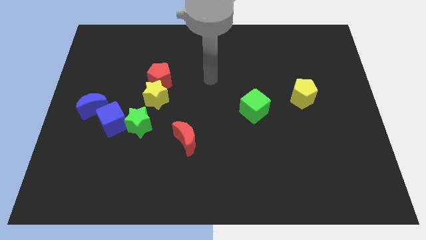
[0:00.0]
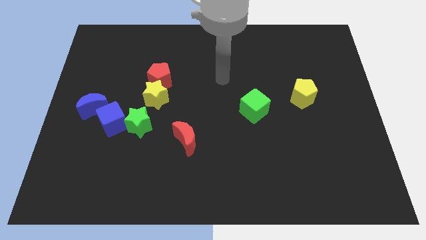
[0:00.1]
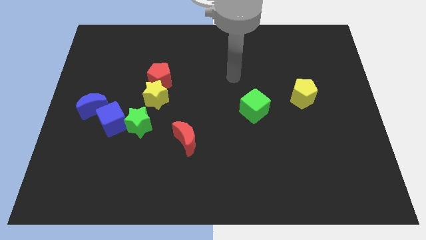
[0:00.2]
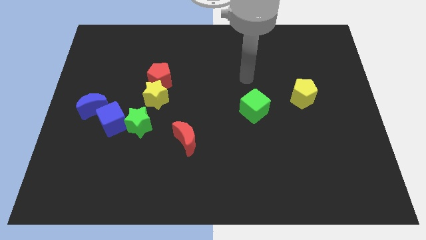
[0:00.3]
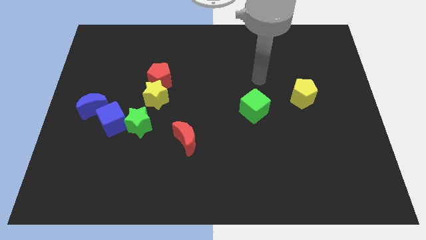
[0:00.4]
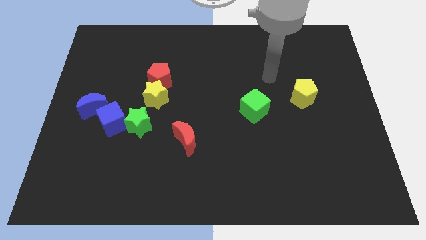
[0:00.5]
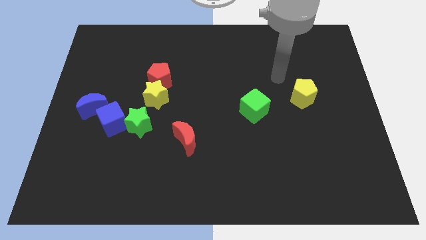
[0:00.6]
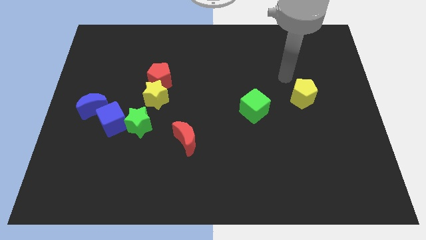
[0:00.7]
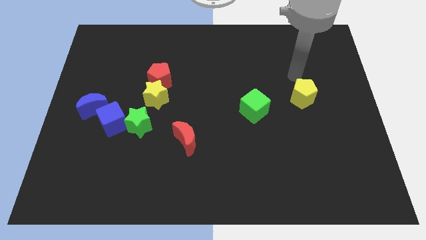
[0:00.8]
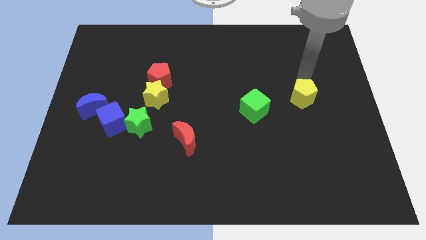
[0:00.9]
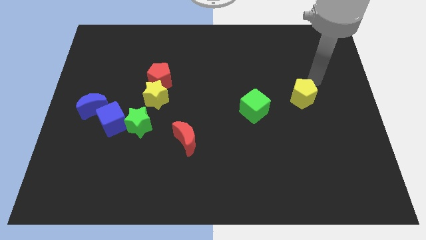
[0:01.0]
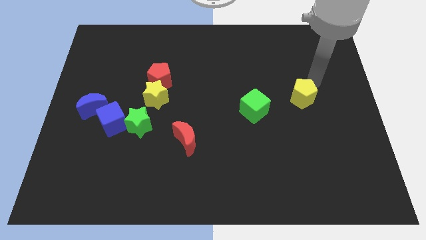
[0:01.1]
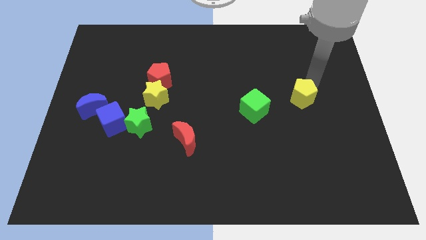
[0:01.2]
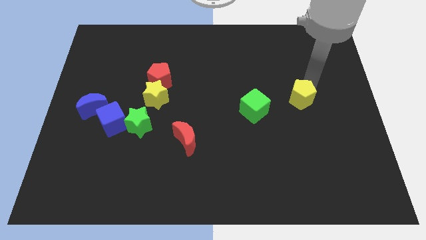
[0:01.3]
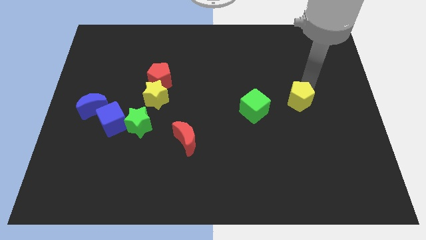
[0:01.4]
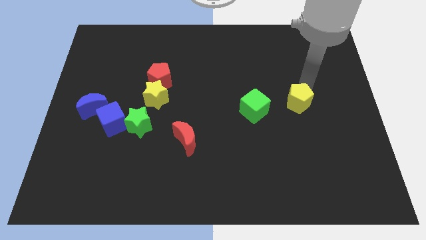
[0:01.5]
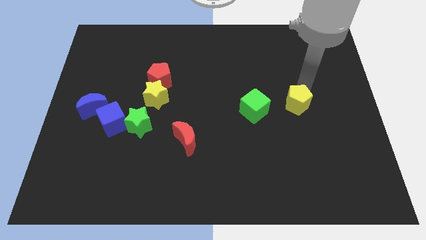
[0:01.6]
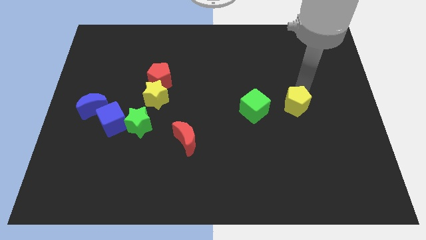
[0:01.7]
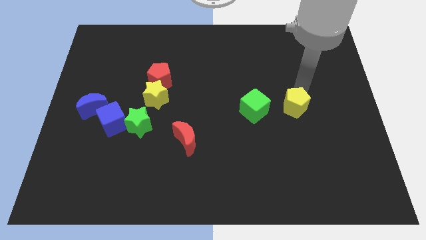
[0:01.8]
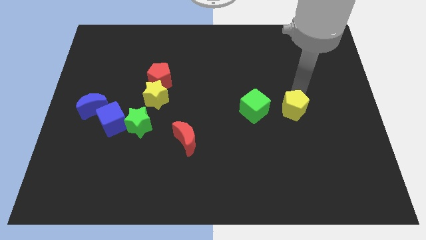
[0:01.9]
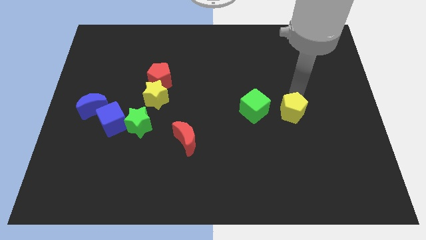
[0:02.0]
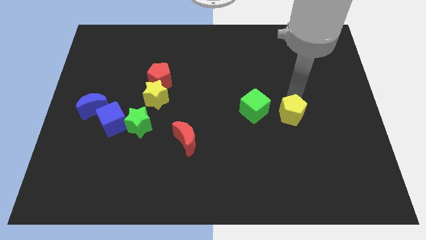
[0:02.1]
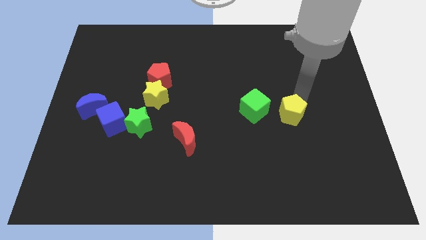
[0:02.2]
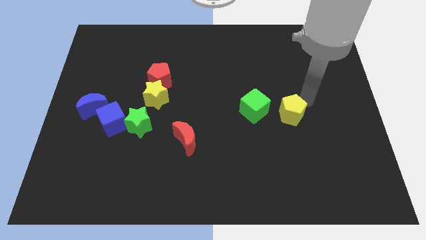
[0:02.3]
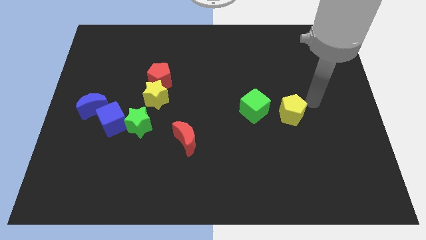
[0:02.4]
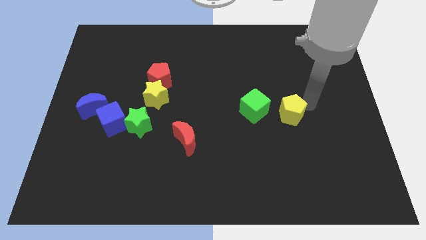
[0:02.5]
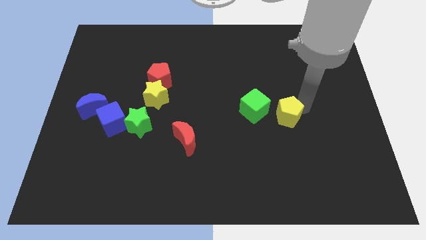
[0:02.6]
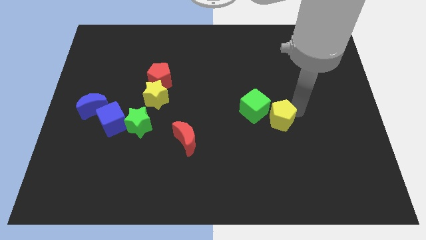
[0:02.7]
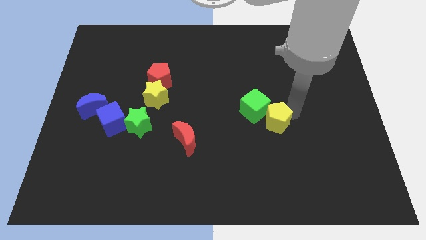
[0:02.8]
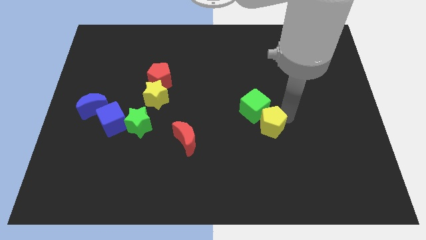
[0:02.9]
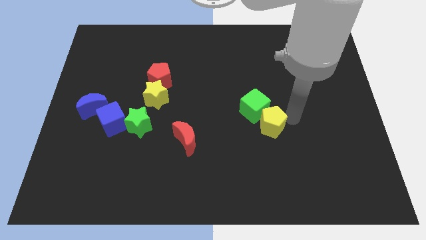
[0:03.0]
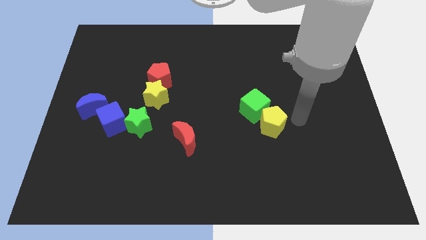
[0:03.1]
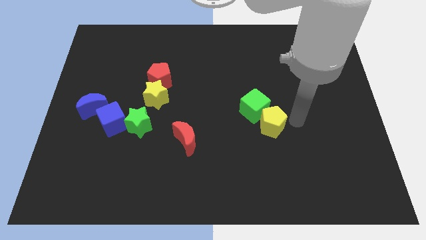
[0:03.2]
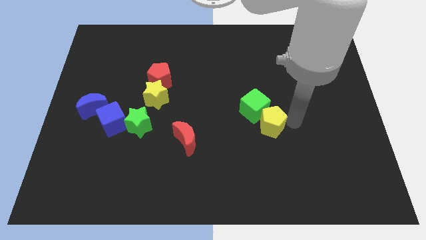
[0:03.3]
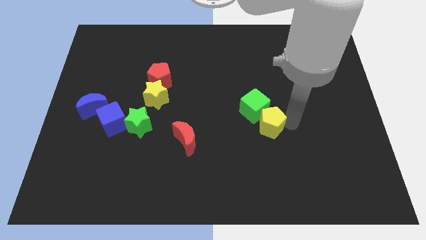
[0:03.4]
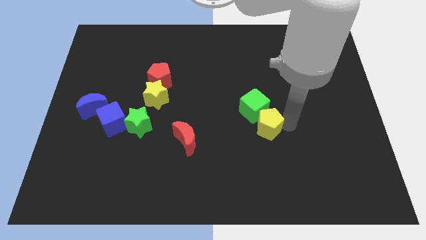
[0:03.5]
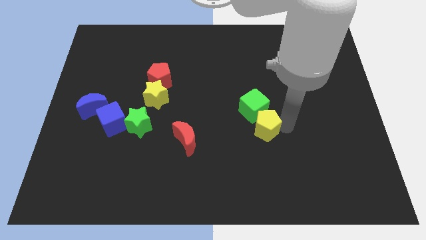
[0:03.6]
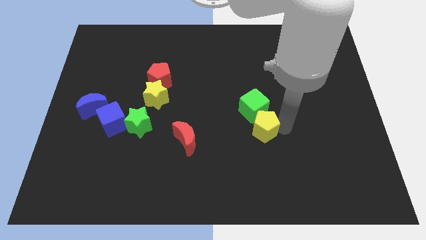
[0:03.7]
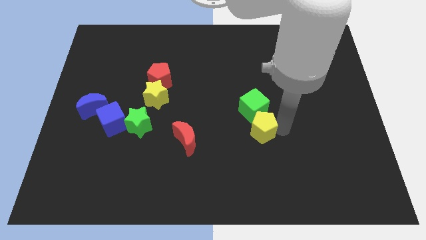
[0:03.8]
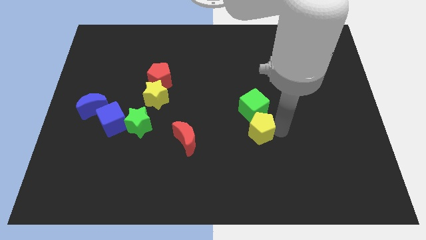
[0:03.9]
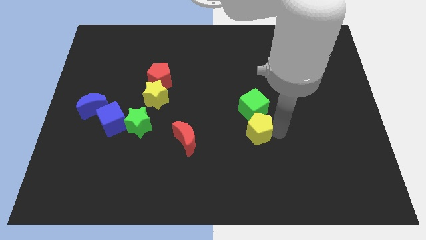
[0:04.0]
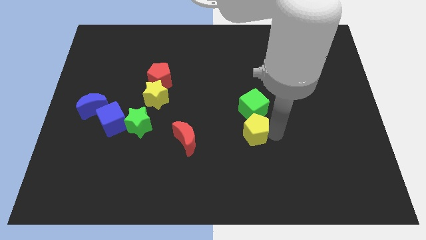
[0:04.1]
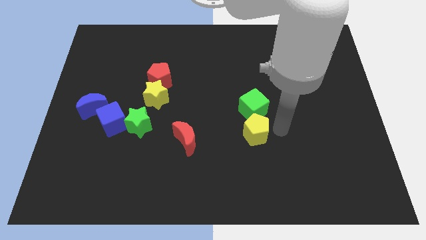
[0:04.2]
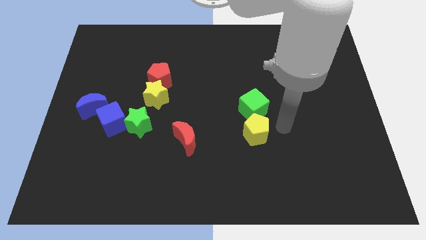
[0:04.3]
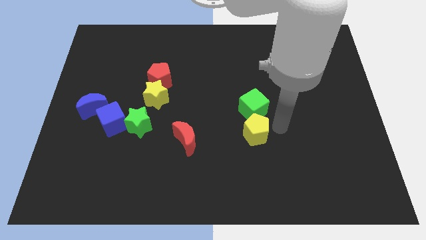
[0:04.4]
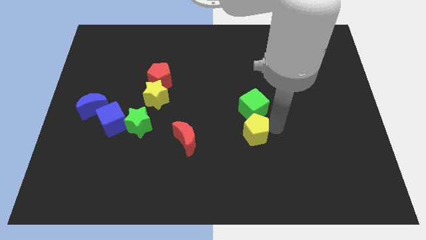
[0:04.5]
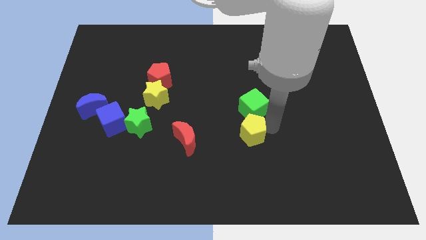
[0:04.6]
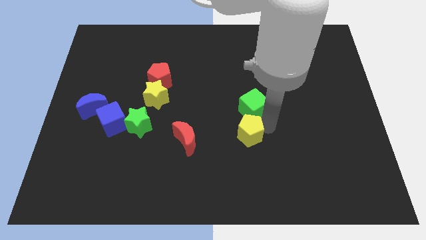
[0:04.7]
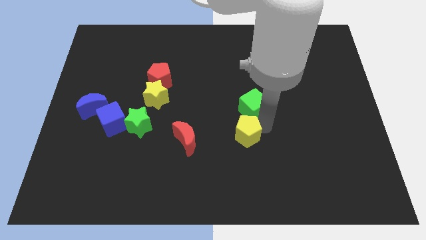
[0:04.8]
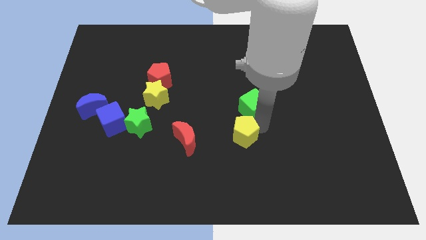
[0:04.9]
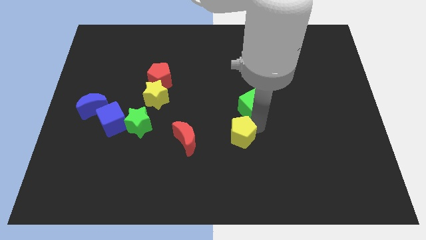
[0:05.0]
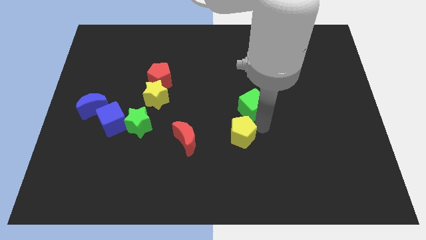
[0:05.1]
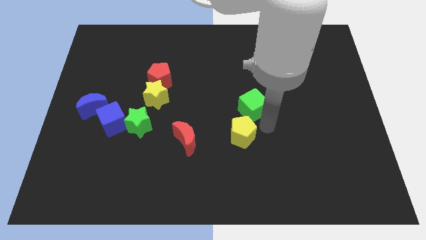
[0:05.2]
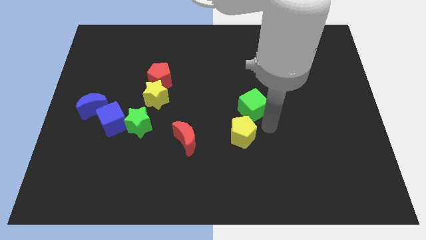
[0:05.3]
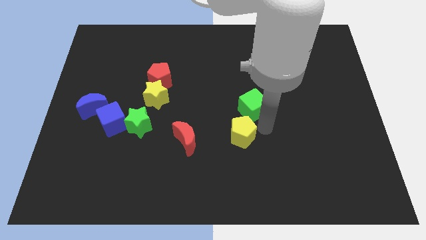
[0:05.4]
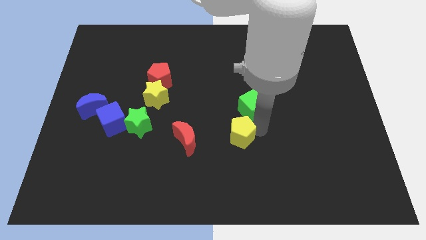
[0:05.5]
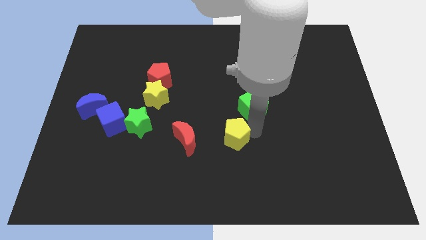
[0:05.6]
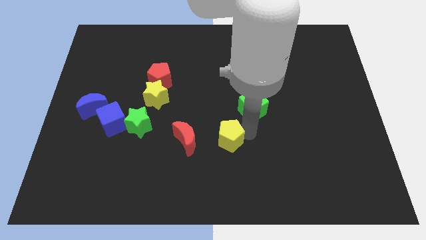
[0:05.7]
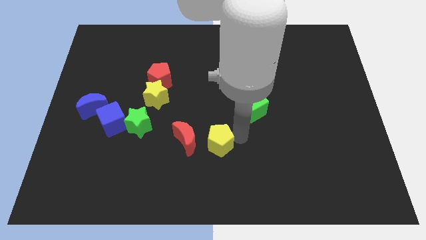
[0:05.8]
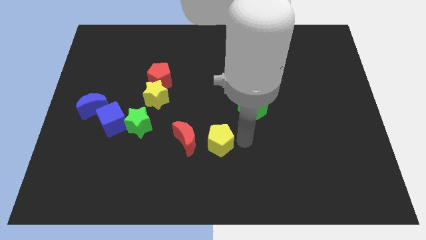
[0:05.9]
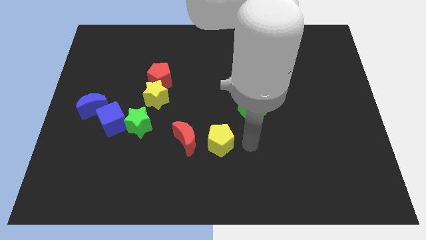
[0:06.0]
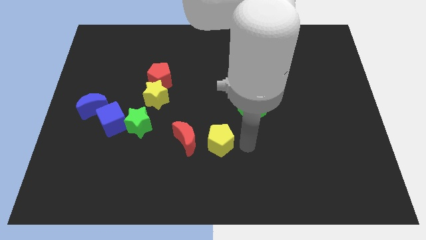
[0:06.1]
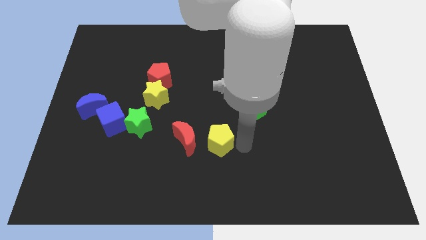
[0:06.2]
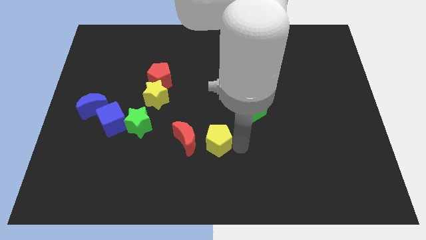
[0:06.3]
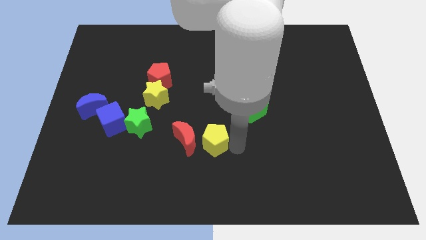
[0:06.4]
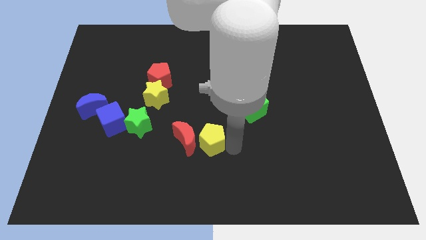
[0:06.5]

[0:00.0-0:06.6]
move the yellow pentagon close to the red moon

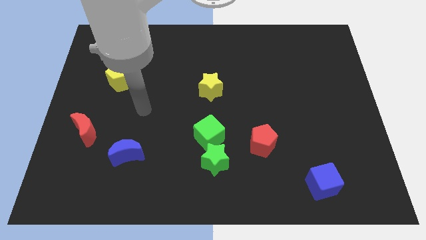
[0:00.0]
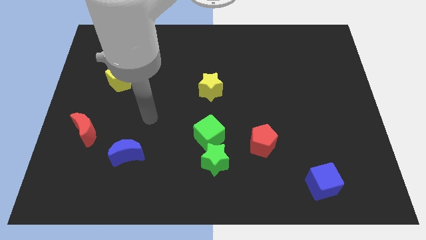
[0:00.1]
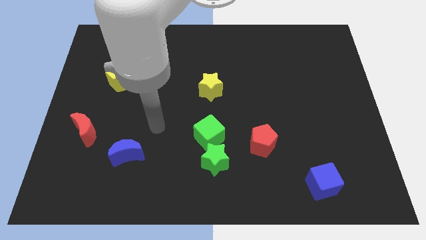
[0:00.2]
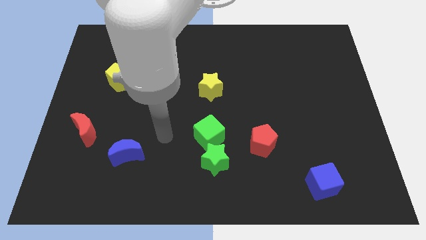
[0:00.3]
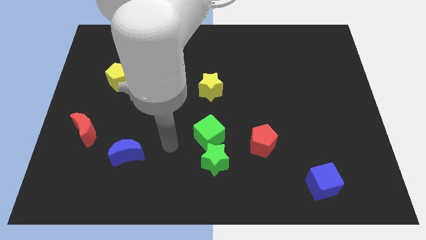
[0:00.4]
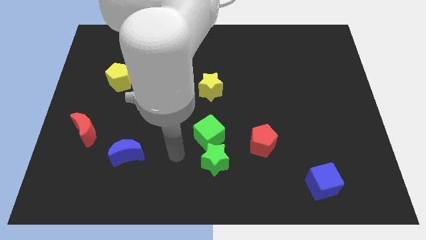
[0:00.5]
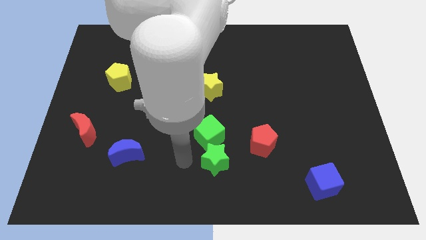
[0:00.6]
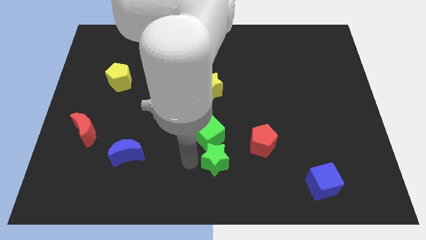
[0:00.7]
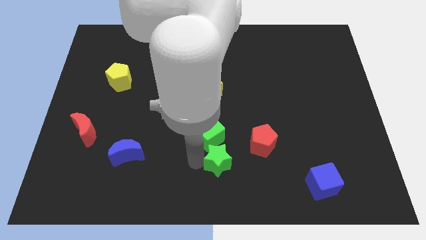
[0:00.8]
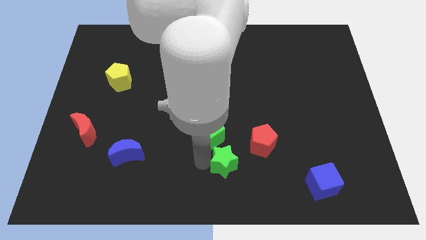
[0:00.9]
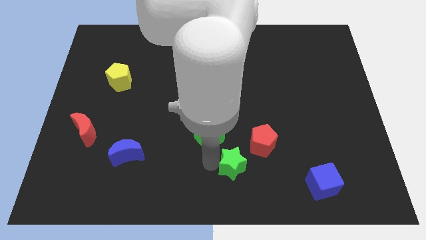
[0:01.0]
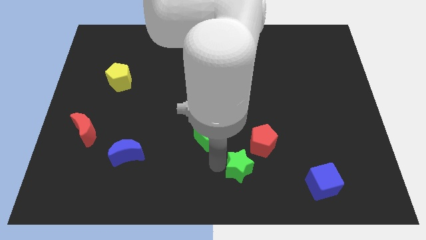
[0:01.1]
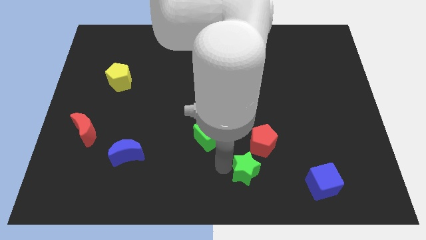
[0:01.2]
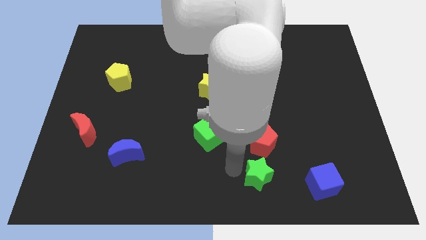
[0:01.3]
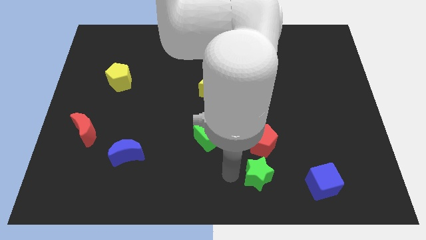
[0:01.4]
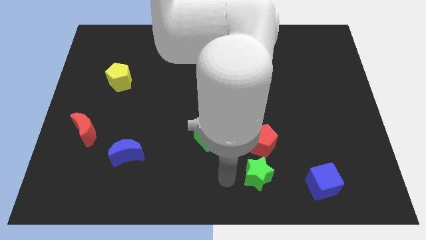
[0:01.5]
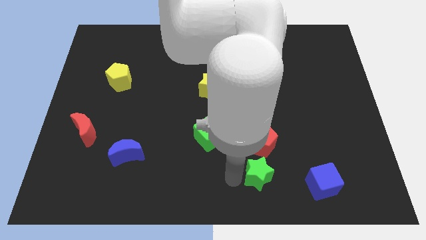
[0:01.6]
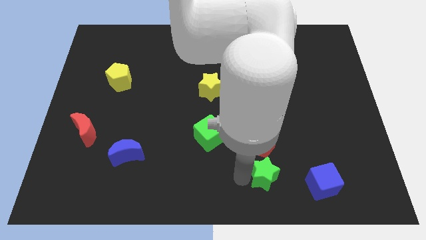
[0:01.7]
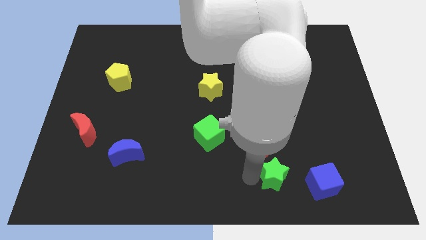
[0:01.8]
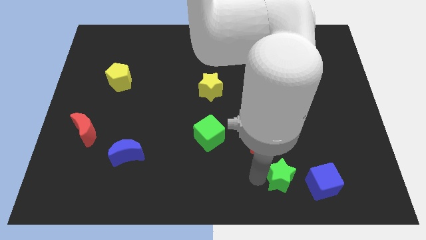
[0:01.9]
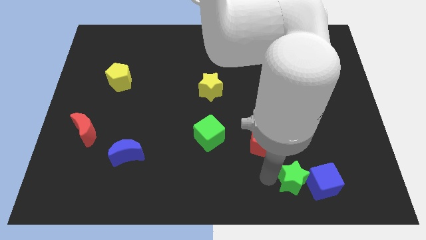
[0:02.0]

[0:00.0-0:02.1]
put the green star towards the blue cube
